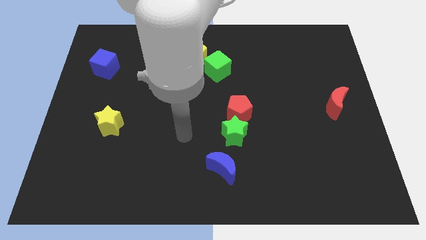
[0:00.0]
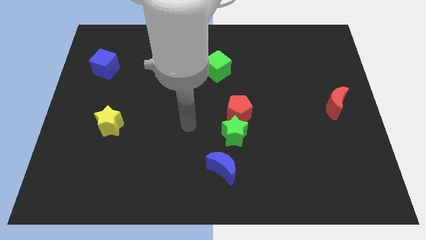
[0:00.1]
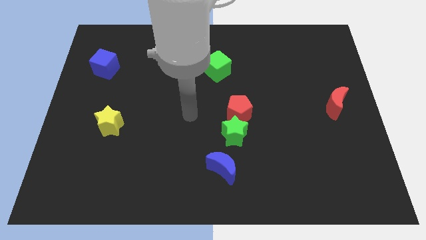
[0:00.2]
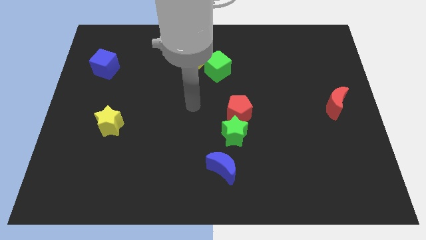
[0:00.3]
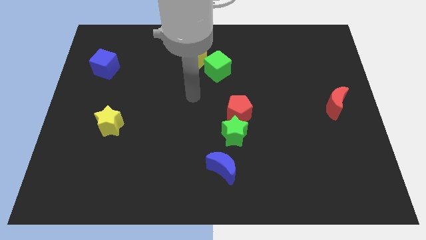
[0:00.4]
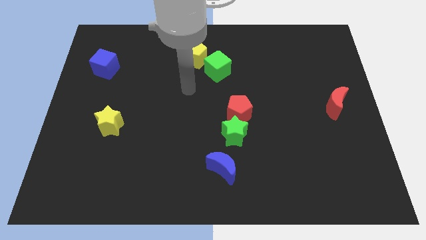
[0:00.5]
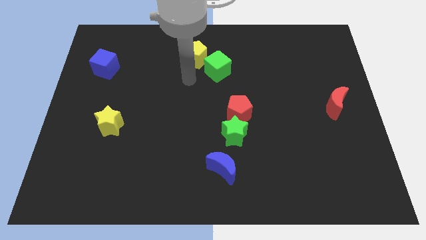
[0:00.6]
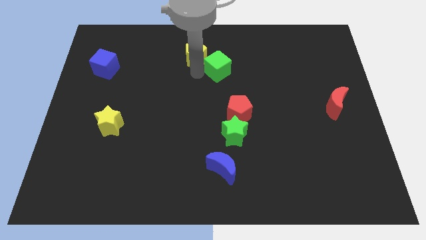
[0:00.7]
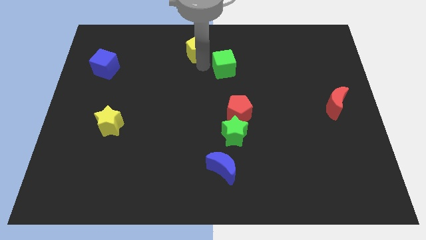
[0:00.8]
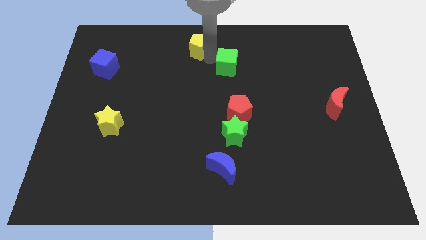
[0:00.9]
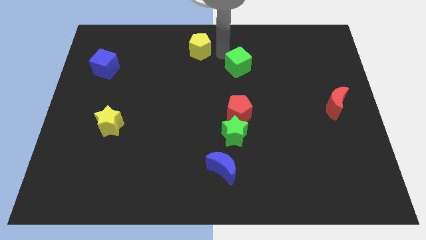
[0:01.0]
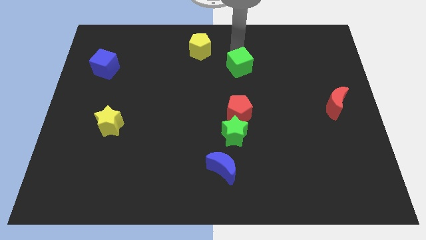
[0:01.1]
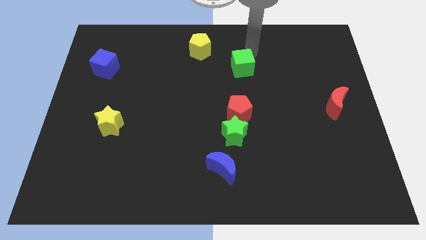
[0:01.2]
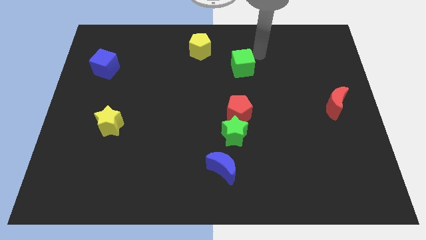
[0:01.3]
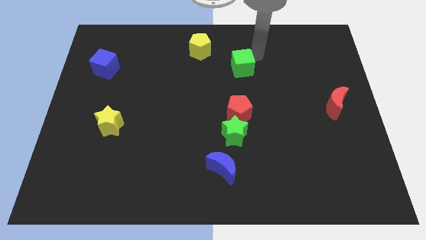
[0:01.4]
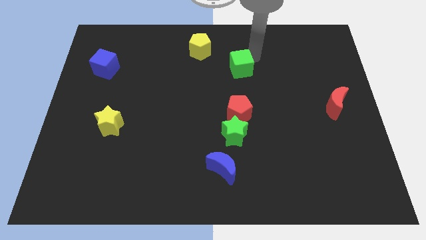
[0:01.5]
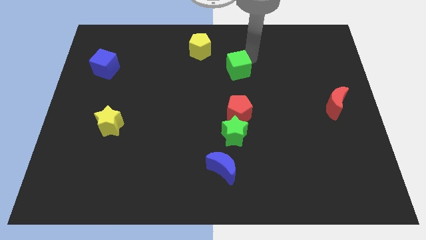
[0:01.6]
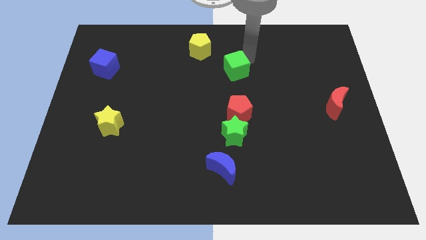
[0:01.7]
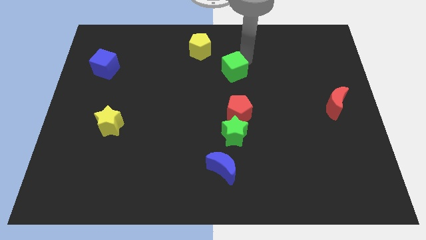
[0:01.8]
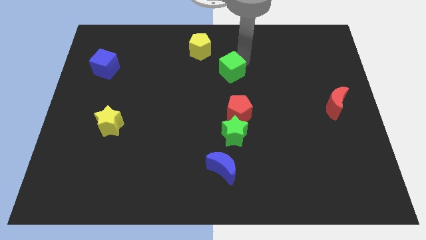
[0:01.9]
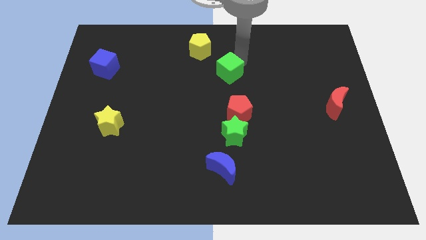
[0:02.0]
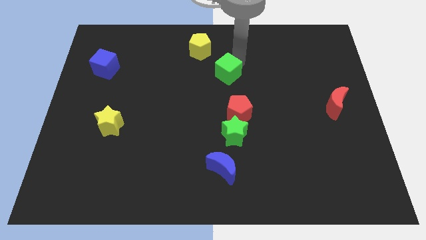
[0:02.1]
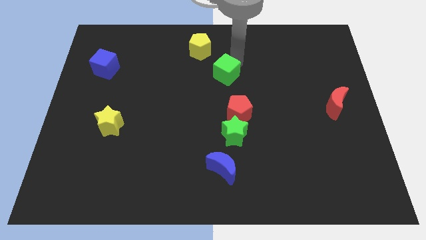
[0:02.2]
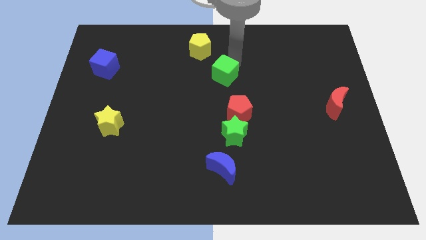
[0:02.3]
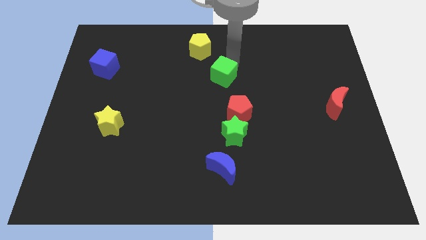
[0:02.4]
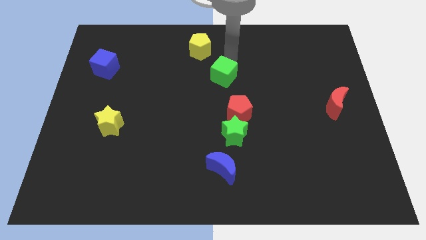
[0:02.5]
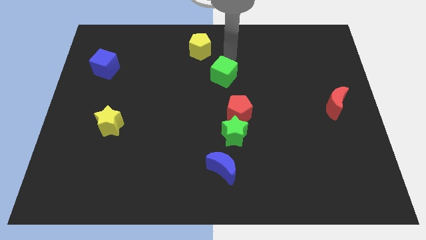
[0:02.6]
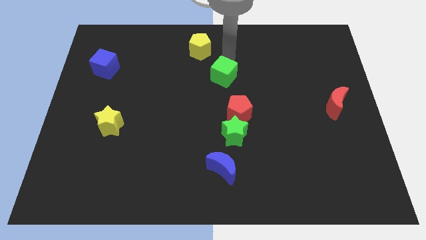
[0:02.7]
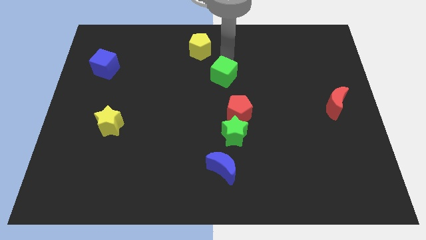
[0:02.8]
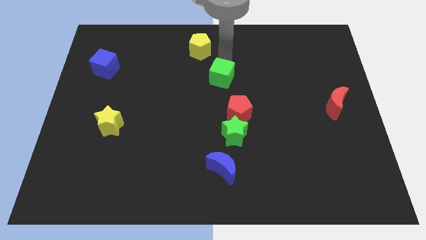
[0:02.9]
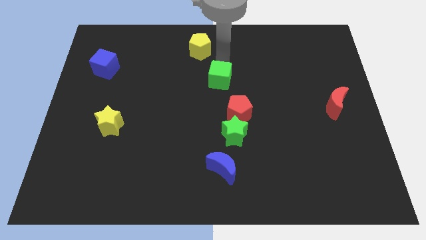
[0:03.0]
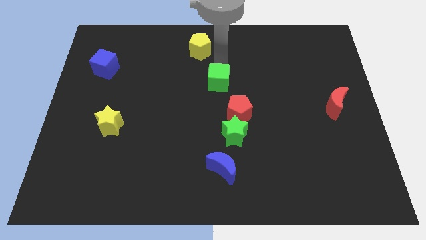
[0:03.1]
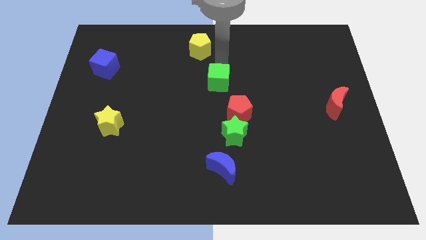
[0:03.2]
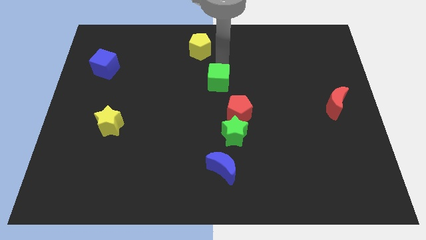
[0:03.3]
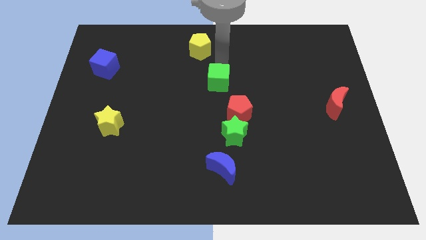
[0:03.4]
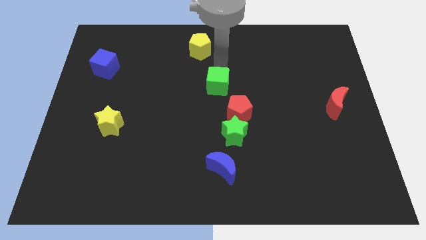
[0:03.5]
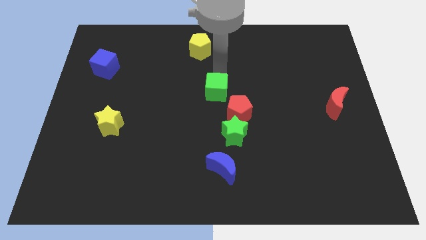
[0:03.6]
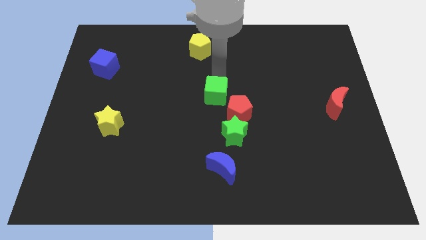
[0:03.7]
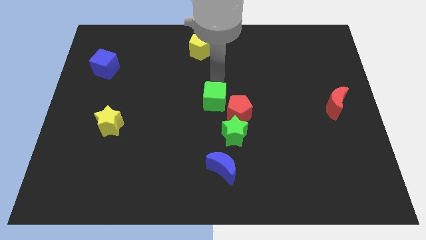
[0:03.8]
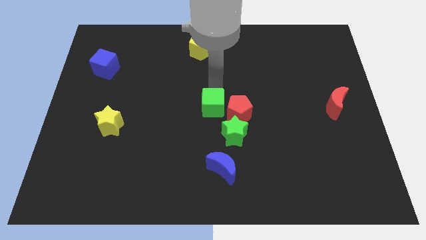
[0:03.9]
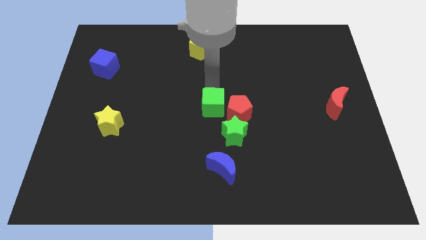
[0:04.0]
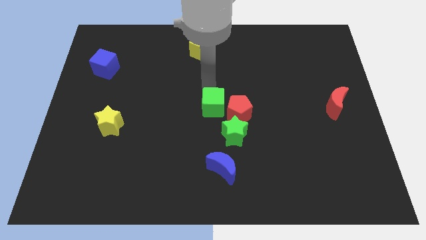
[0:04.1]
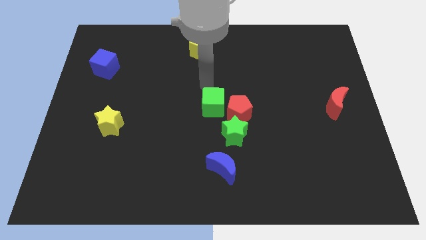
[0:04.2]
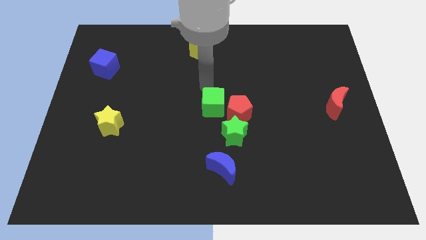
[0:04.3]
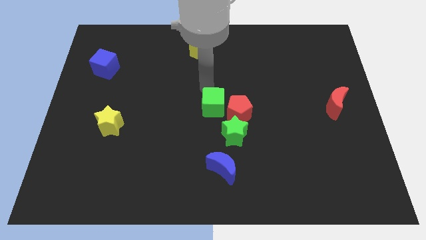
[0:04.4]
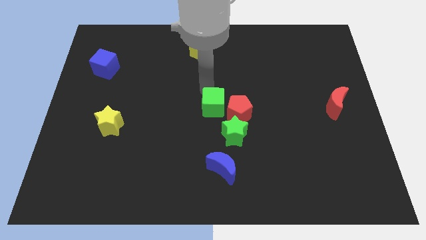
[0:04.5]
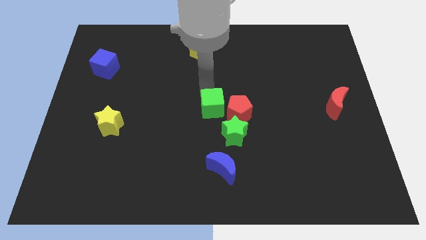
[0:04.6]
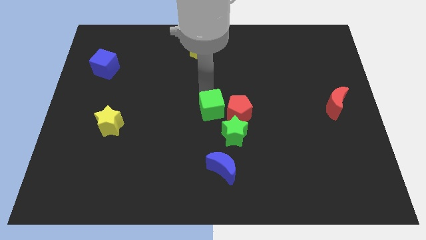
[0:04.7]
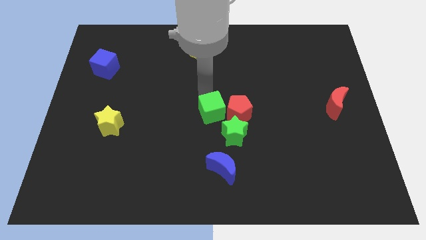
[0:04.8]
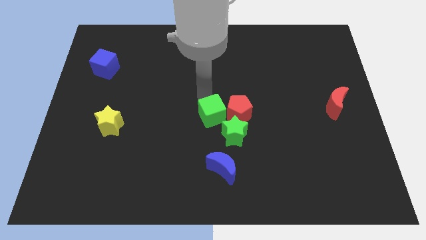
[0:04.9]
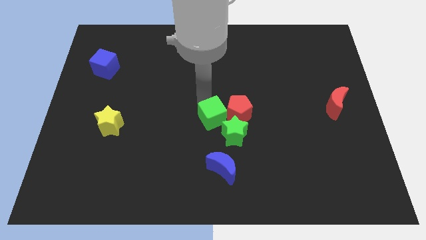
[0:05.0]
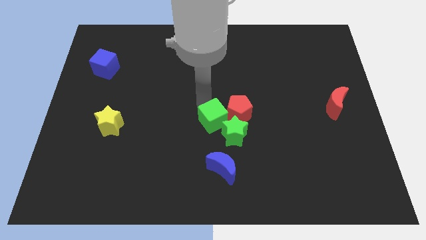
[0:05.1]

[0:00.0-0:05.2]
move the green cube next to the green star

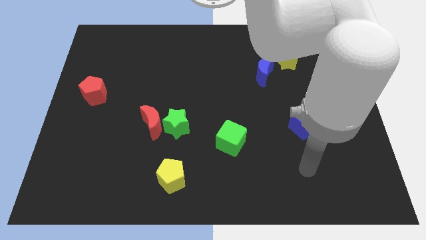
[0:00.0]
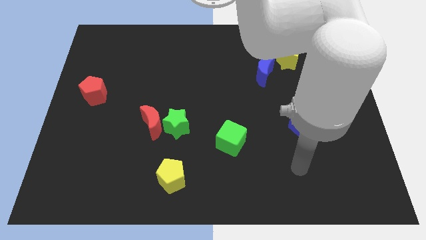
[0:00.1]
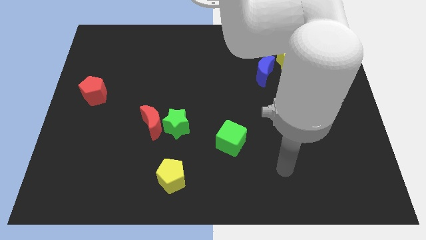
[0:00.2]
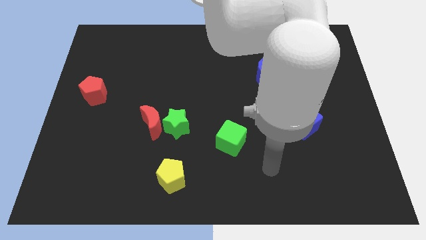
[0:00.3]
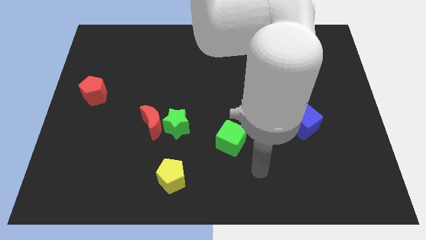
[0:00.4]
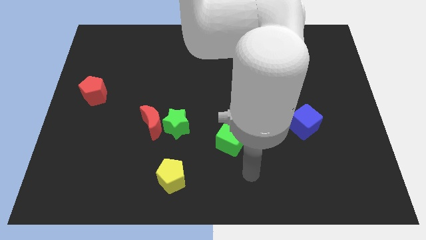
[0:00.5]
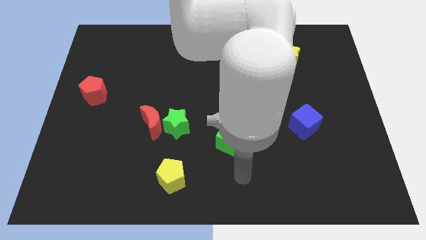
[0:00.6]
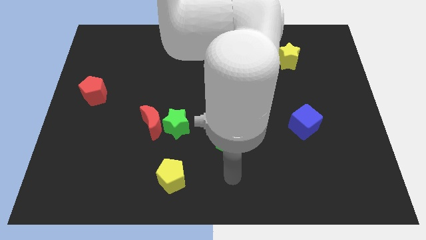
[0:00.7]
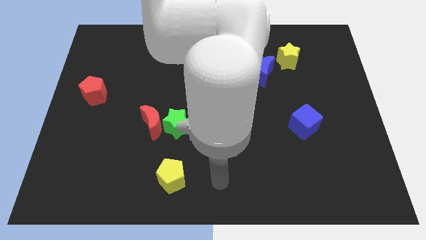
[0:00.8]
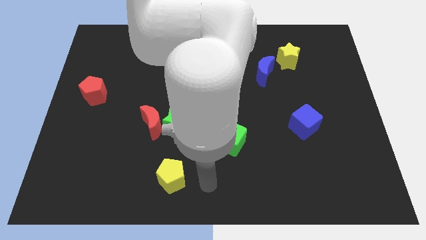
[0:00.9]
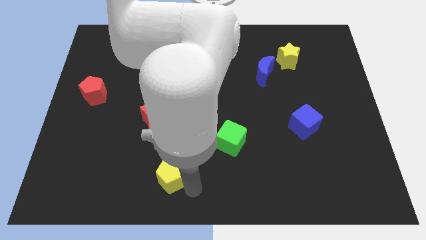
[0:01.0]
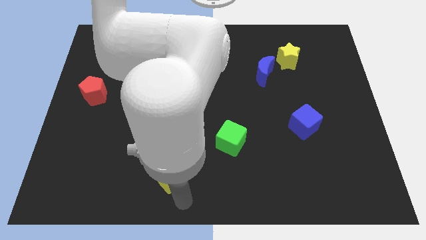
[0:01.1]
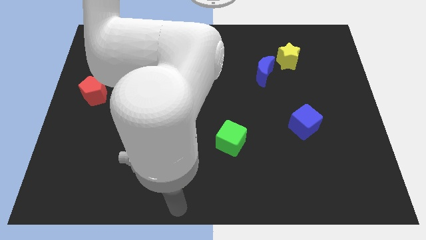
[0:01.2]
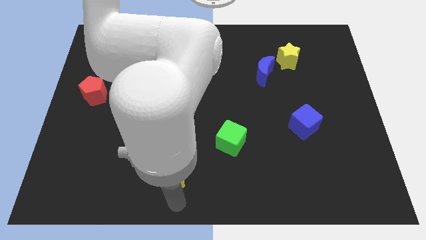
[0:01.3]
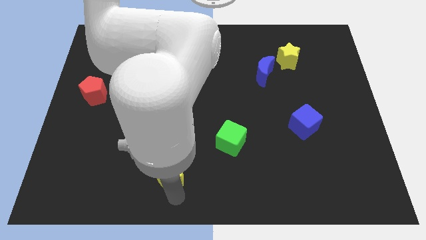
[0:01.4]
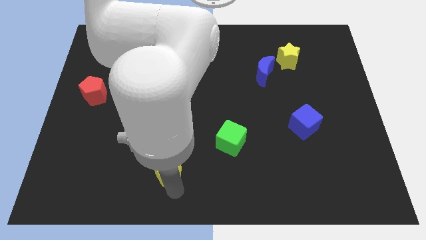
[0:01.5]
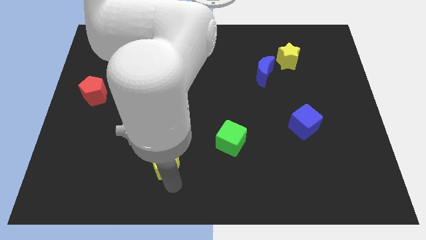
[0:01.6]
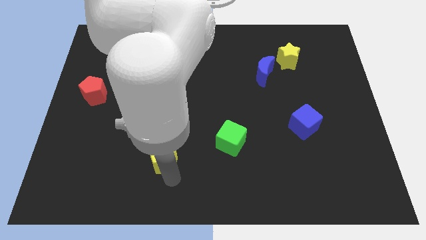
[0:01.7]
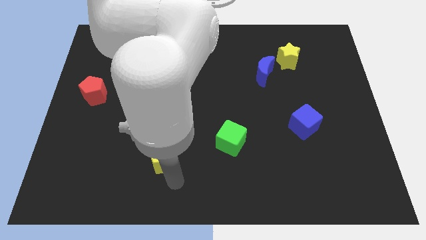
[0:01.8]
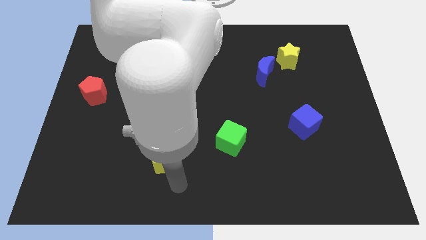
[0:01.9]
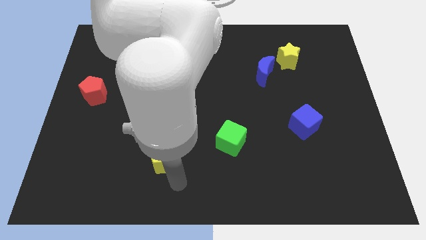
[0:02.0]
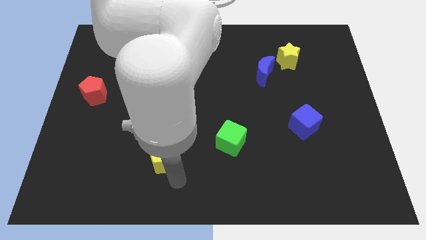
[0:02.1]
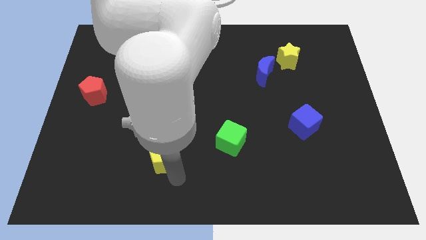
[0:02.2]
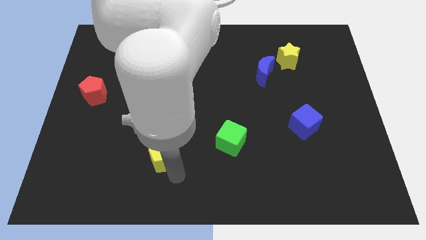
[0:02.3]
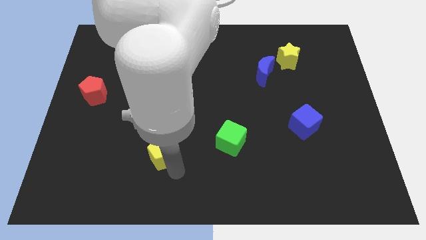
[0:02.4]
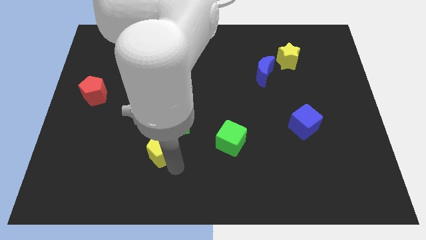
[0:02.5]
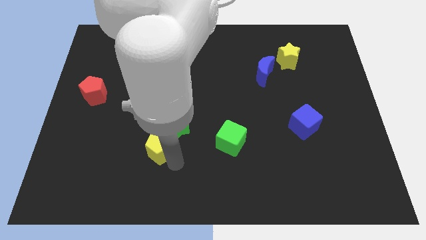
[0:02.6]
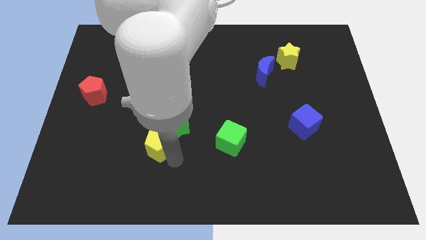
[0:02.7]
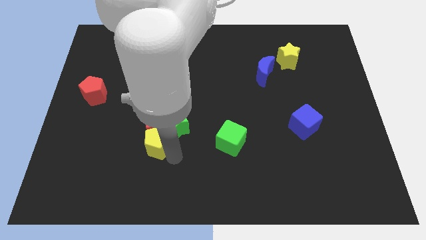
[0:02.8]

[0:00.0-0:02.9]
push the yellow pentagon next to the red moon
